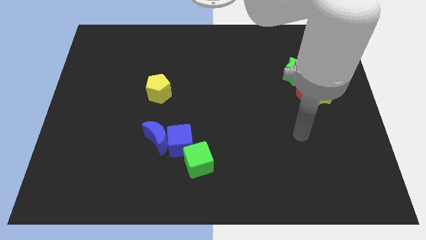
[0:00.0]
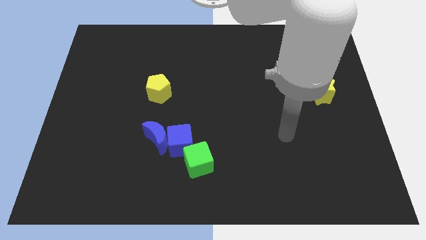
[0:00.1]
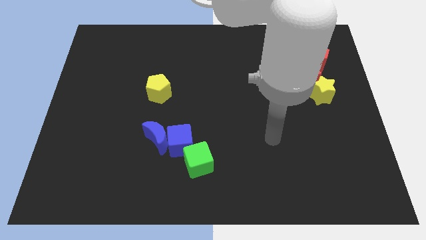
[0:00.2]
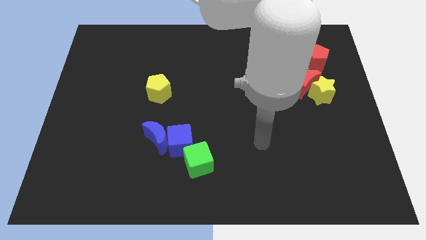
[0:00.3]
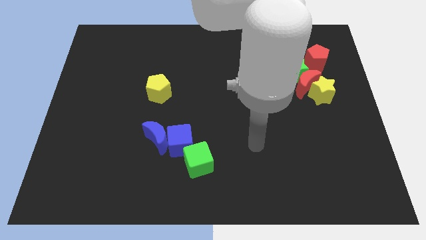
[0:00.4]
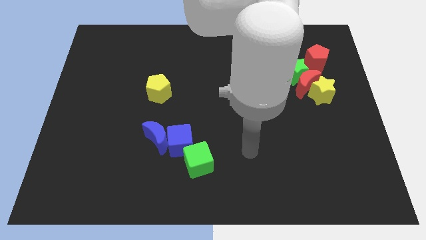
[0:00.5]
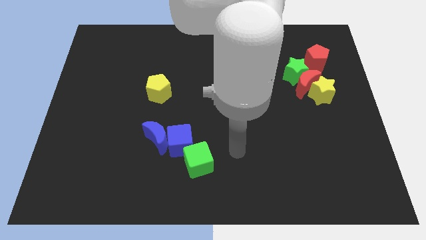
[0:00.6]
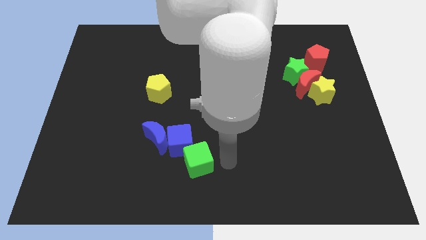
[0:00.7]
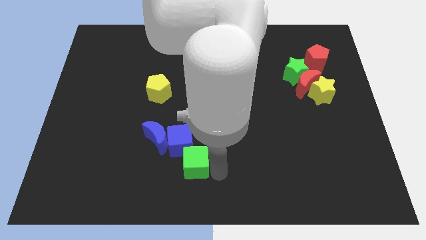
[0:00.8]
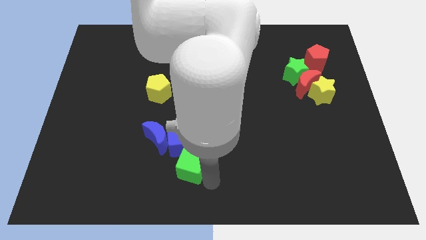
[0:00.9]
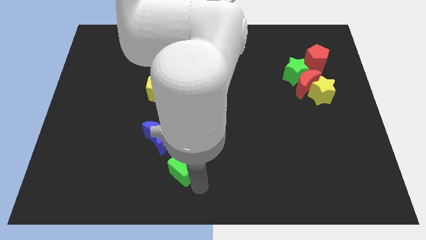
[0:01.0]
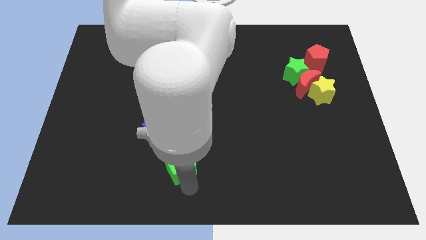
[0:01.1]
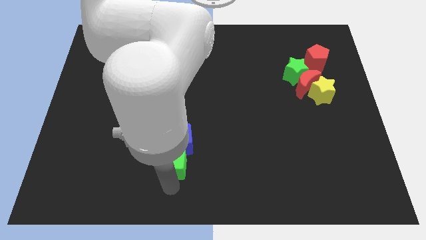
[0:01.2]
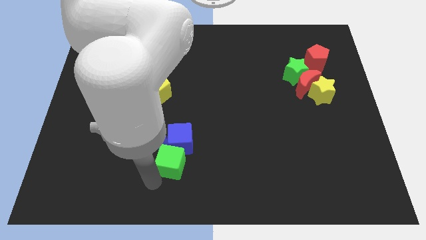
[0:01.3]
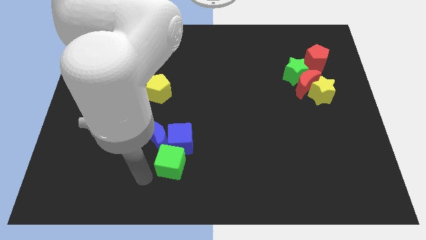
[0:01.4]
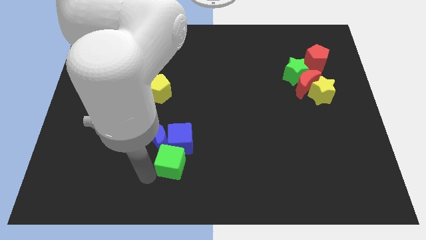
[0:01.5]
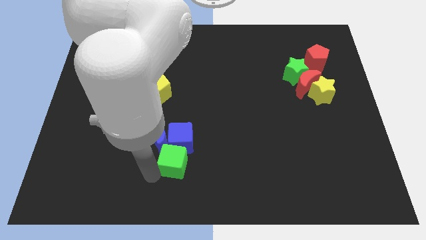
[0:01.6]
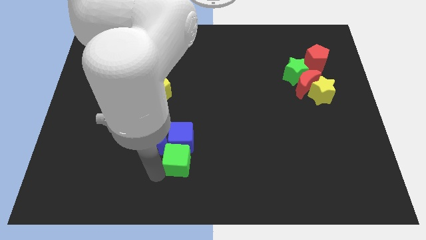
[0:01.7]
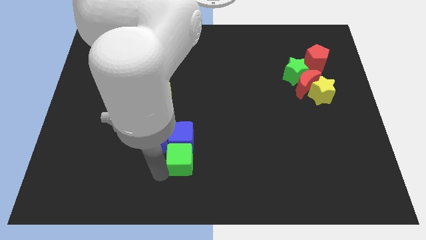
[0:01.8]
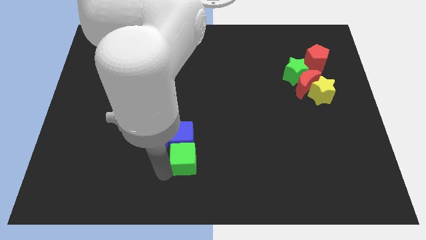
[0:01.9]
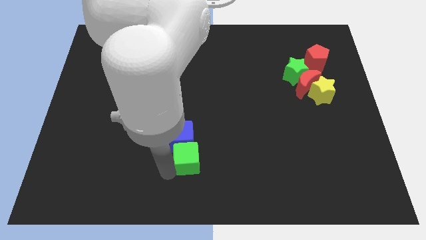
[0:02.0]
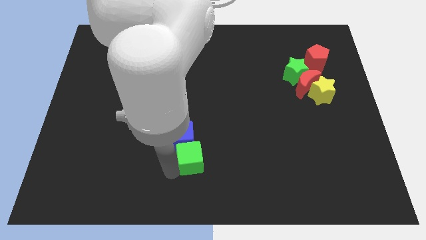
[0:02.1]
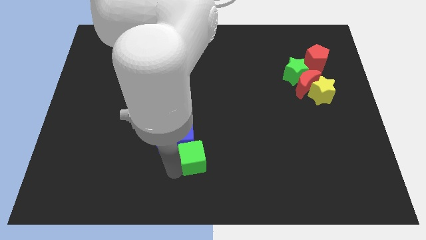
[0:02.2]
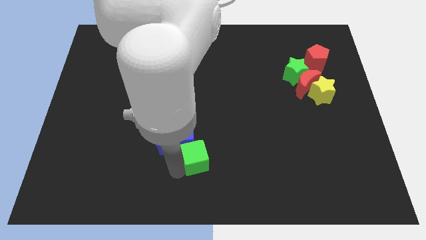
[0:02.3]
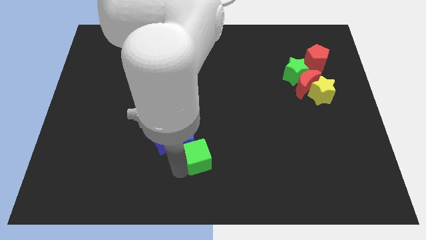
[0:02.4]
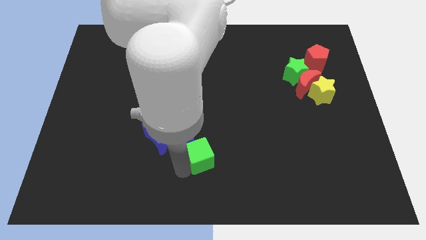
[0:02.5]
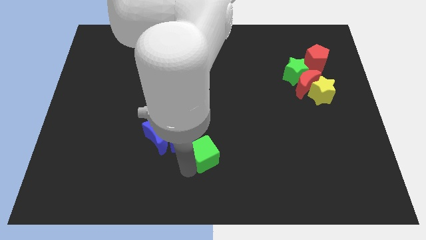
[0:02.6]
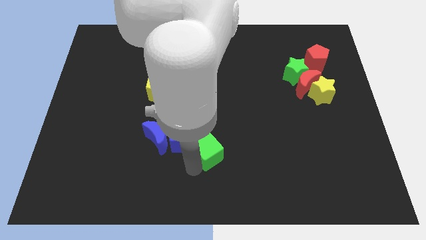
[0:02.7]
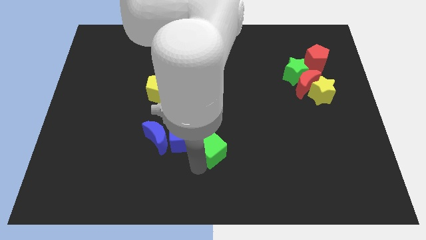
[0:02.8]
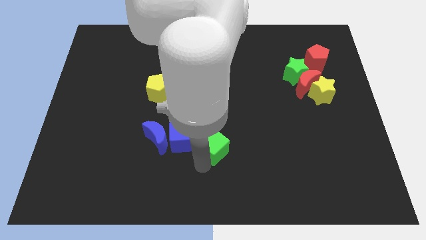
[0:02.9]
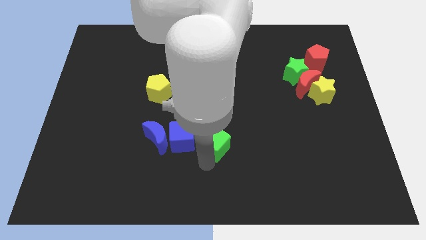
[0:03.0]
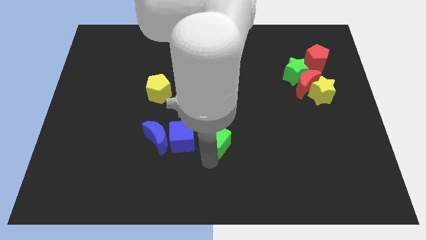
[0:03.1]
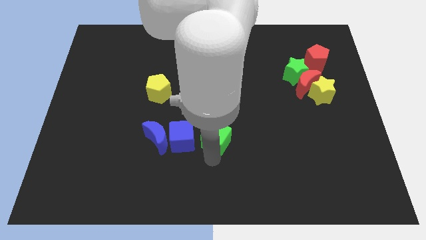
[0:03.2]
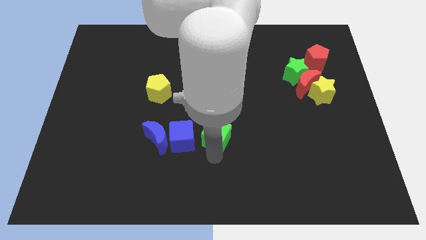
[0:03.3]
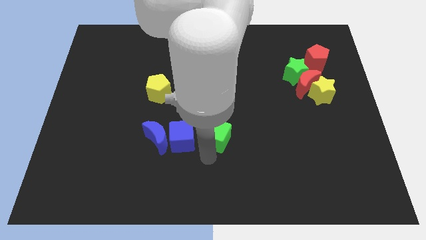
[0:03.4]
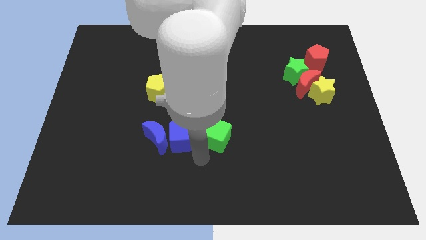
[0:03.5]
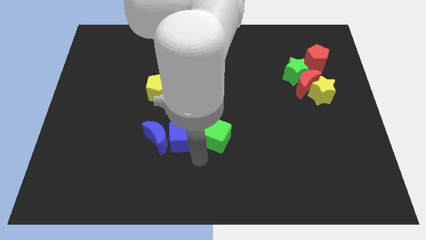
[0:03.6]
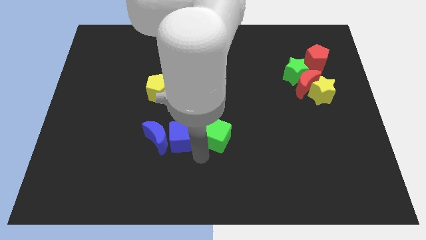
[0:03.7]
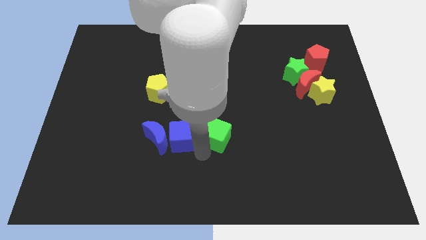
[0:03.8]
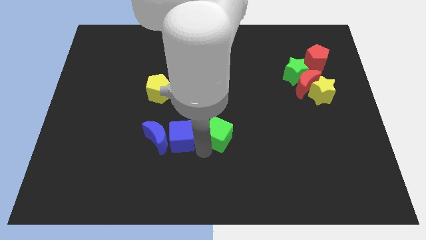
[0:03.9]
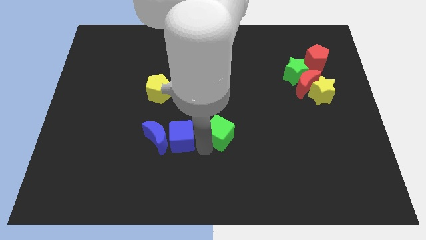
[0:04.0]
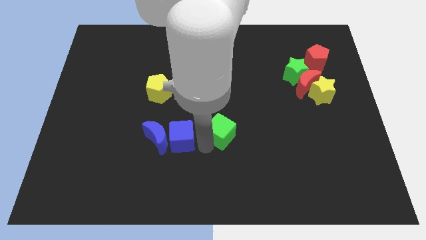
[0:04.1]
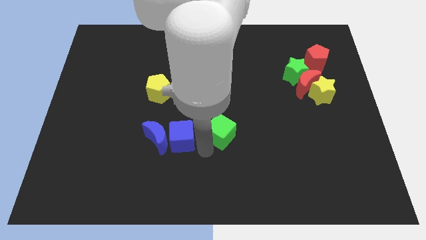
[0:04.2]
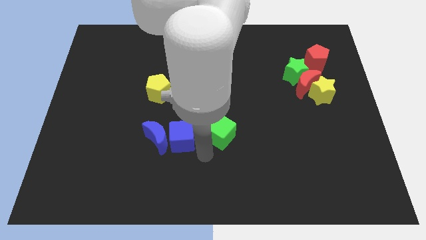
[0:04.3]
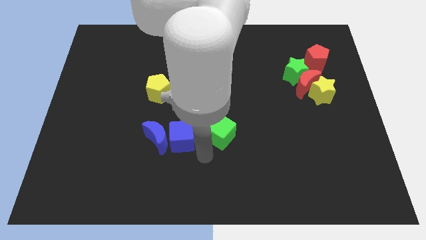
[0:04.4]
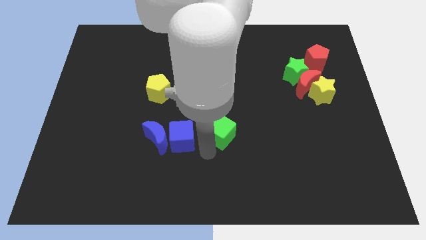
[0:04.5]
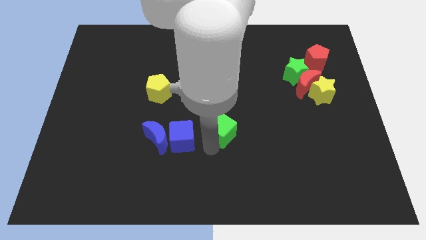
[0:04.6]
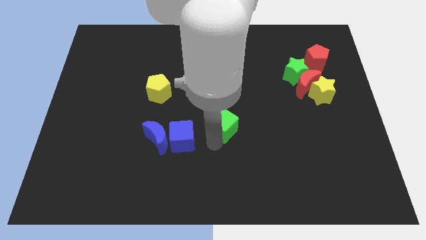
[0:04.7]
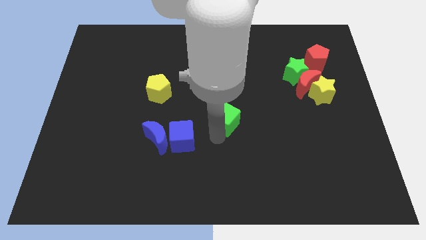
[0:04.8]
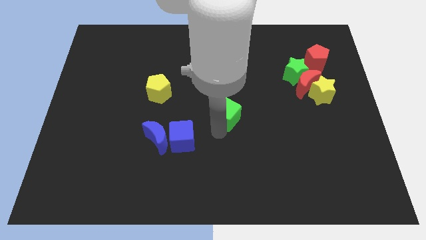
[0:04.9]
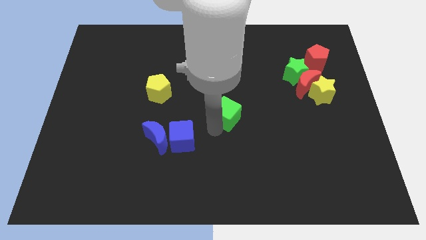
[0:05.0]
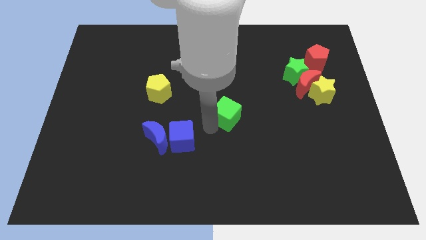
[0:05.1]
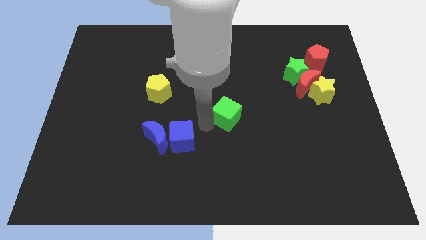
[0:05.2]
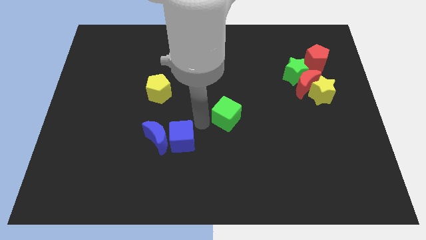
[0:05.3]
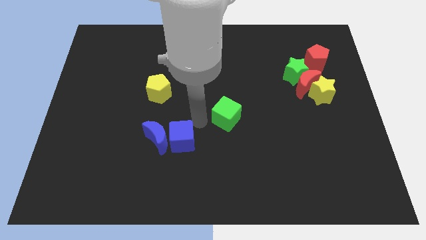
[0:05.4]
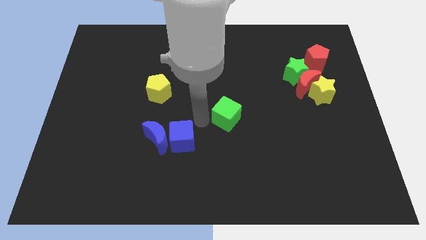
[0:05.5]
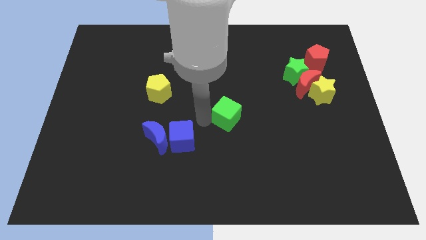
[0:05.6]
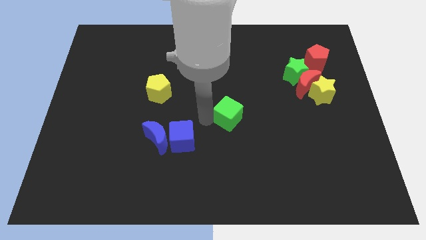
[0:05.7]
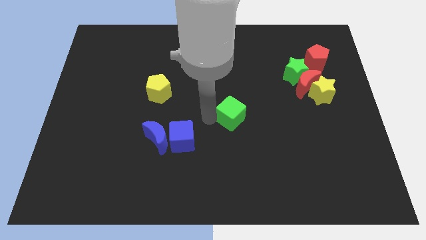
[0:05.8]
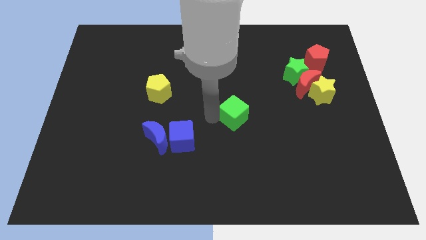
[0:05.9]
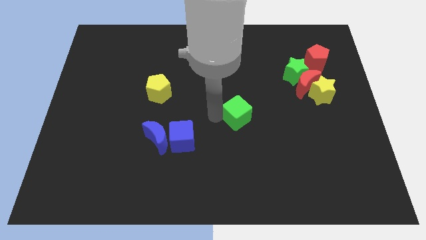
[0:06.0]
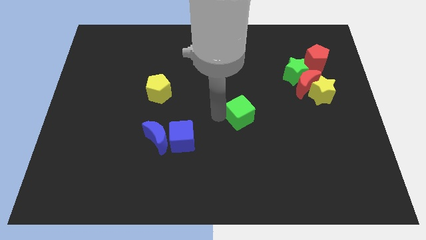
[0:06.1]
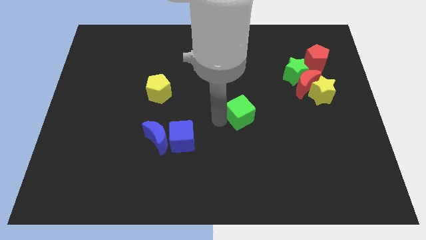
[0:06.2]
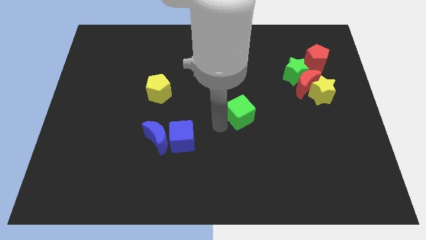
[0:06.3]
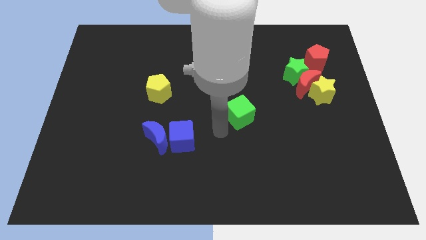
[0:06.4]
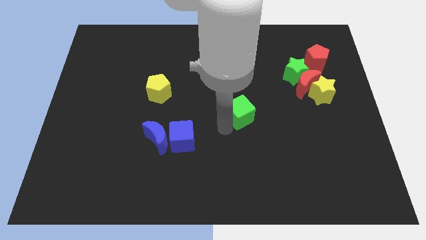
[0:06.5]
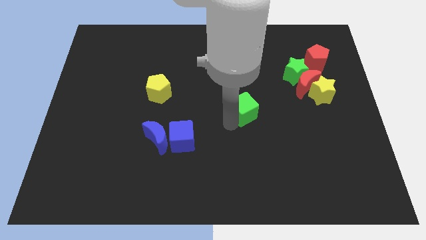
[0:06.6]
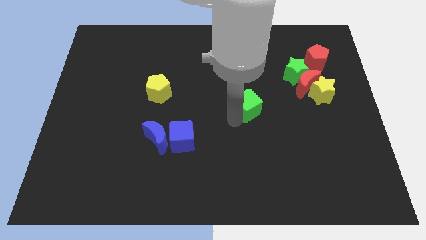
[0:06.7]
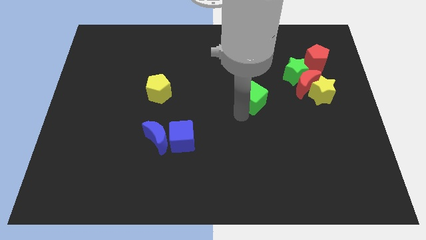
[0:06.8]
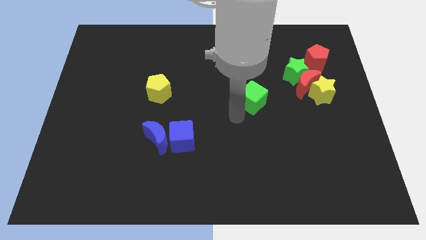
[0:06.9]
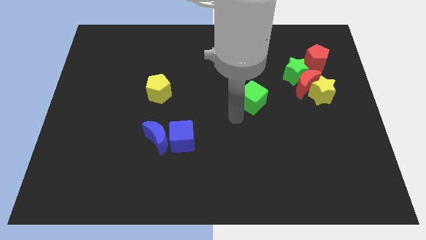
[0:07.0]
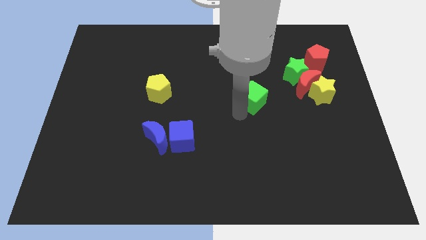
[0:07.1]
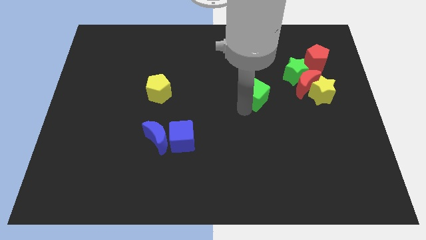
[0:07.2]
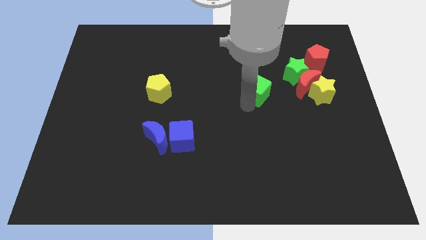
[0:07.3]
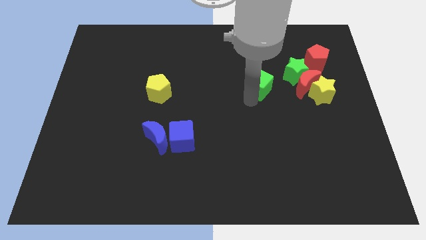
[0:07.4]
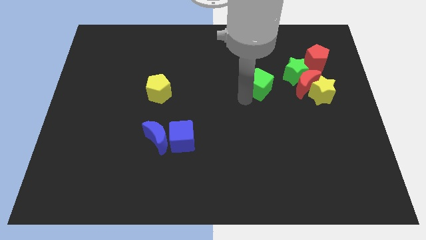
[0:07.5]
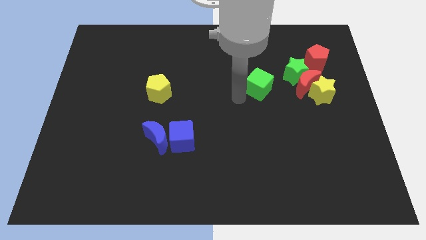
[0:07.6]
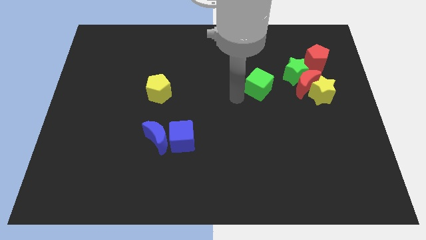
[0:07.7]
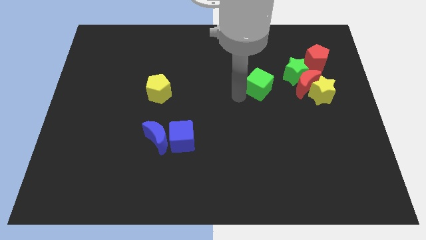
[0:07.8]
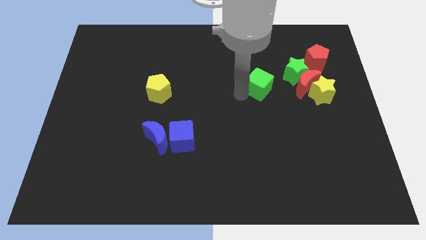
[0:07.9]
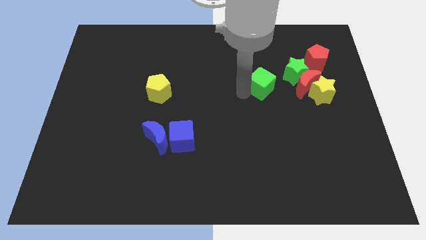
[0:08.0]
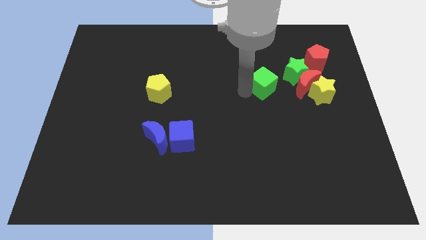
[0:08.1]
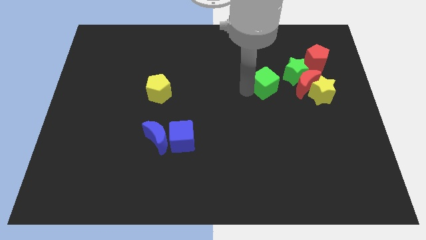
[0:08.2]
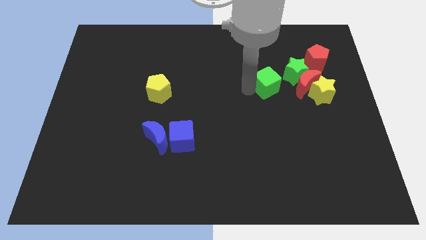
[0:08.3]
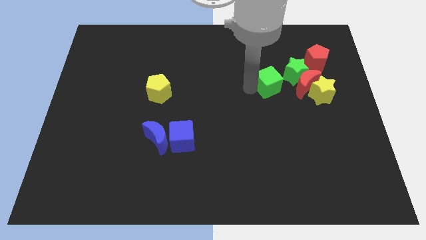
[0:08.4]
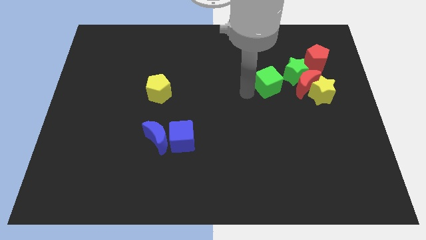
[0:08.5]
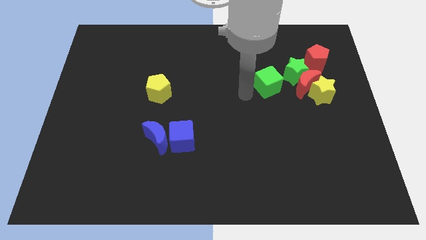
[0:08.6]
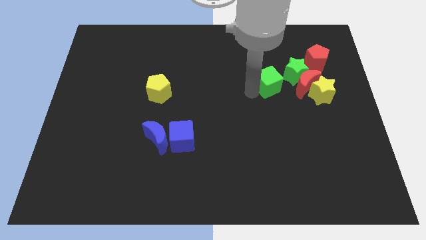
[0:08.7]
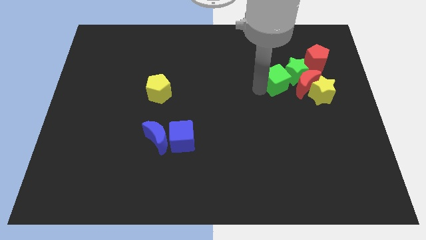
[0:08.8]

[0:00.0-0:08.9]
slide the green cube towards the green star
